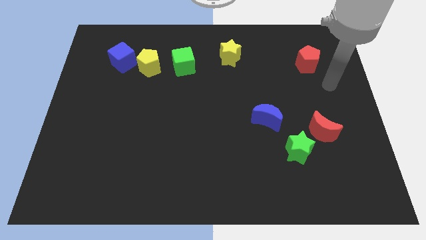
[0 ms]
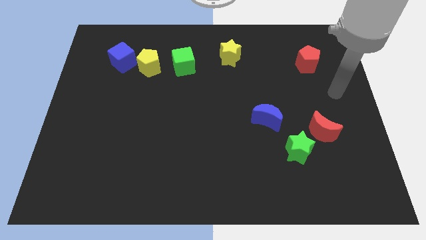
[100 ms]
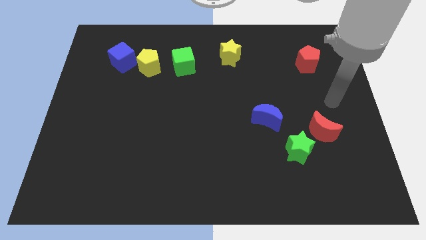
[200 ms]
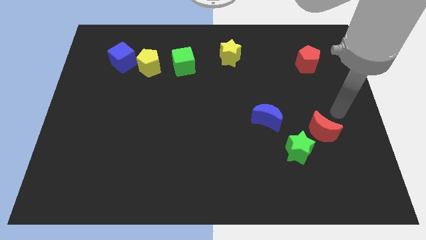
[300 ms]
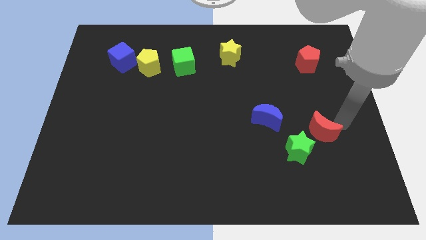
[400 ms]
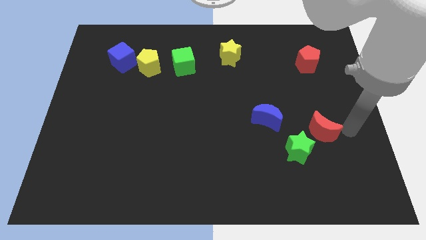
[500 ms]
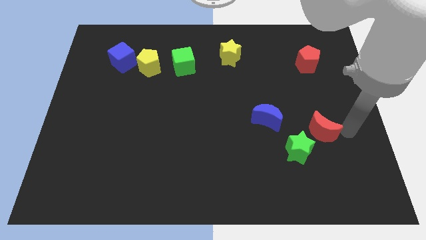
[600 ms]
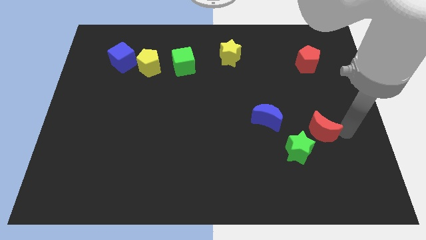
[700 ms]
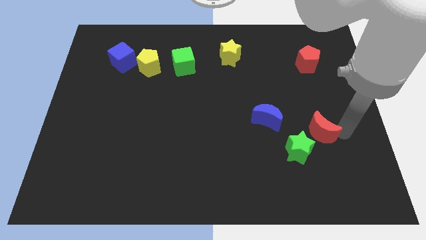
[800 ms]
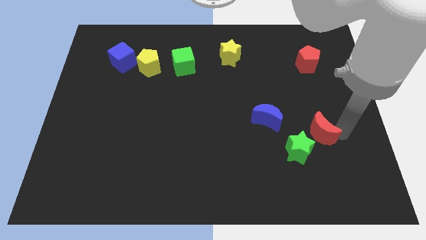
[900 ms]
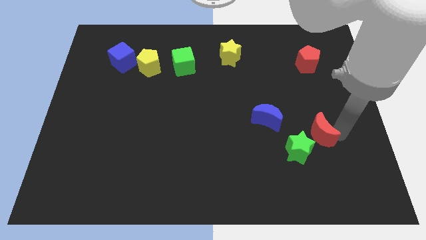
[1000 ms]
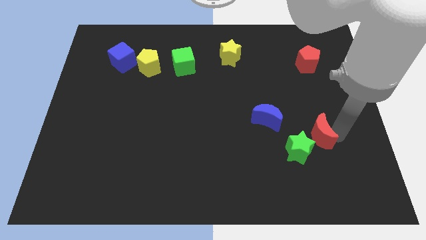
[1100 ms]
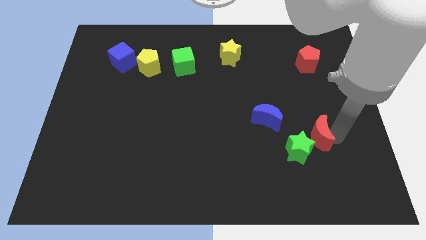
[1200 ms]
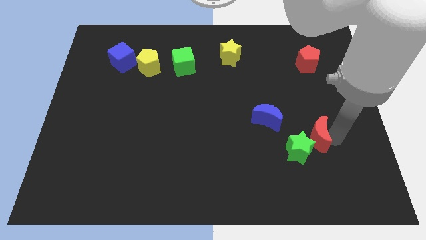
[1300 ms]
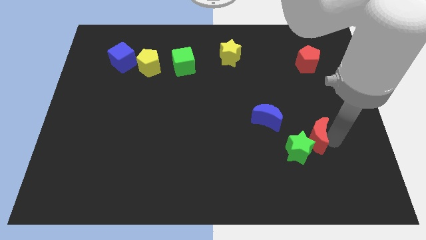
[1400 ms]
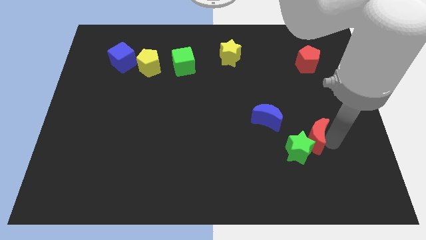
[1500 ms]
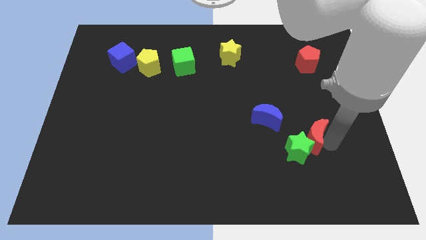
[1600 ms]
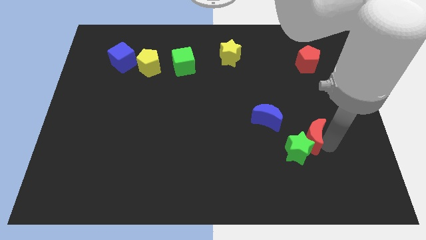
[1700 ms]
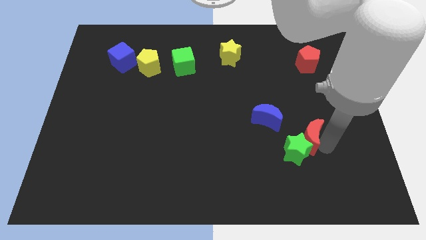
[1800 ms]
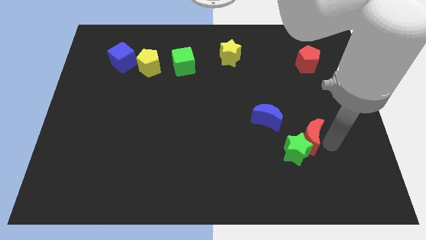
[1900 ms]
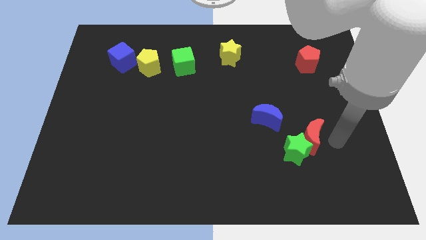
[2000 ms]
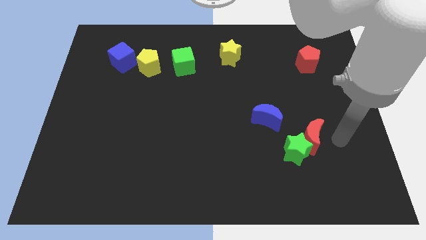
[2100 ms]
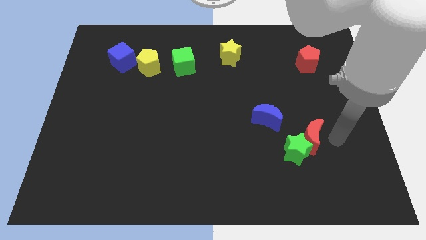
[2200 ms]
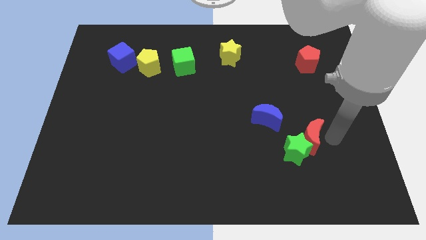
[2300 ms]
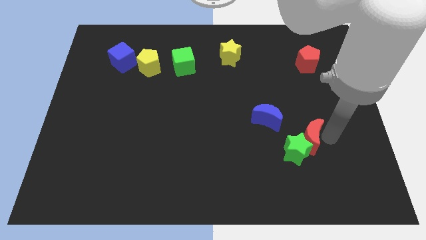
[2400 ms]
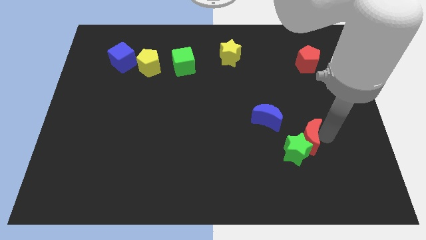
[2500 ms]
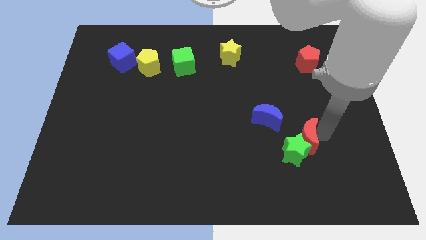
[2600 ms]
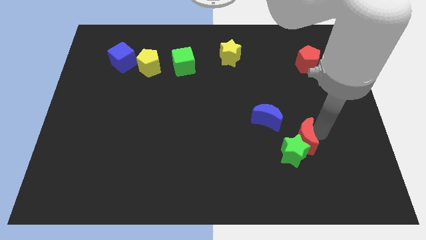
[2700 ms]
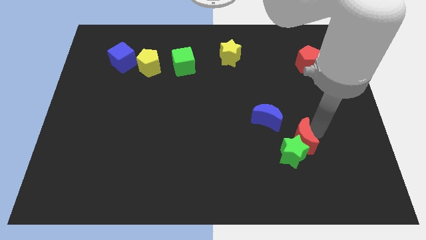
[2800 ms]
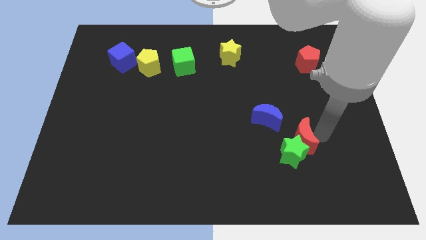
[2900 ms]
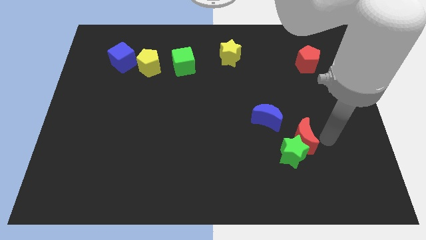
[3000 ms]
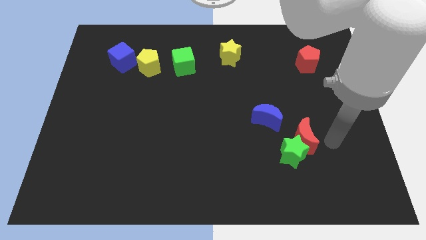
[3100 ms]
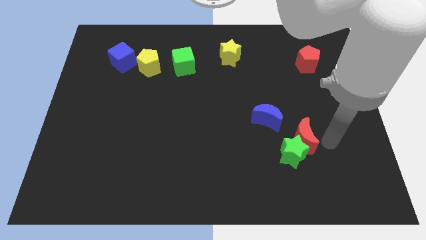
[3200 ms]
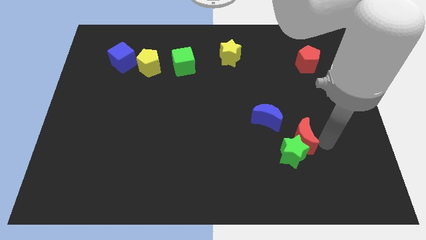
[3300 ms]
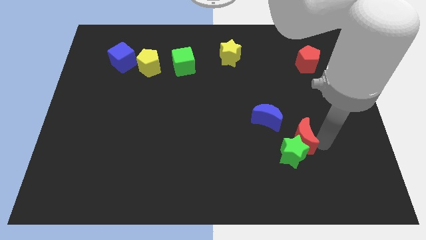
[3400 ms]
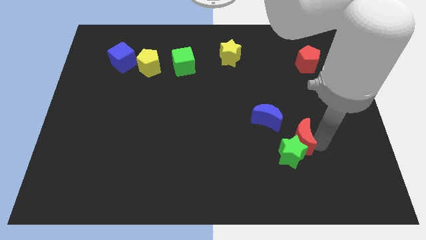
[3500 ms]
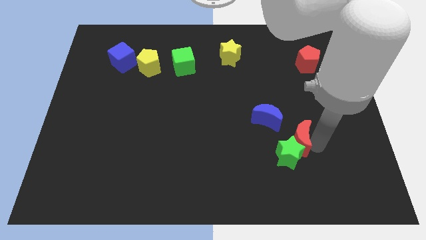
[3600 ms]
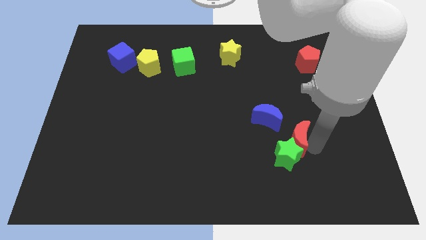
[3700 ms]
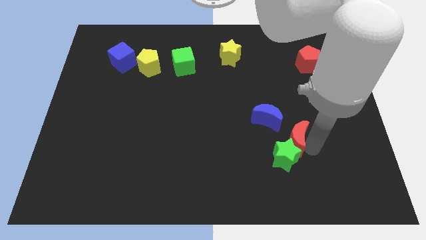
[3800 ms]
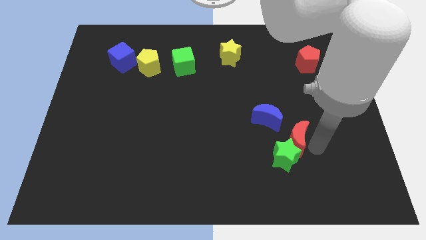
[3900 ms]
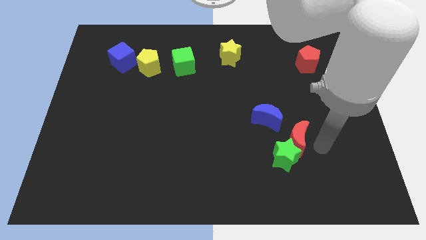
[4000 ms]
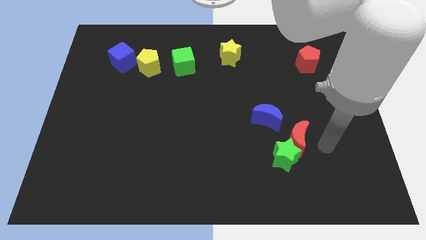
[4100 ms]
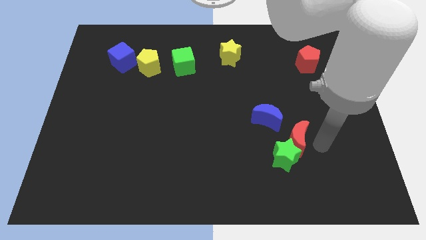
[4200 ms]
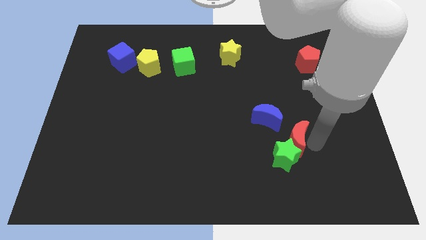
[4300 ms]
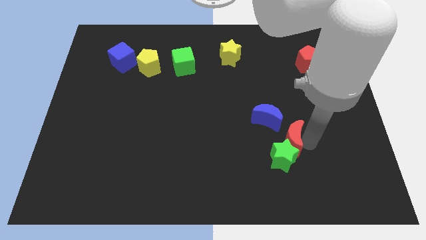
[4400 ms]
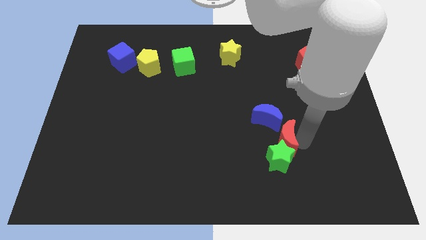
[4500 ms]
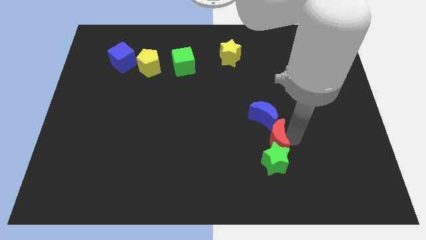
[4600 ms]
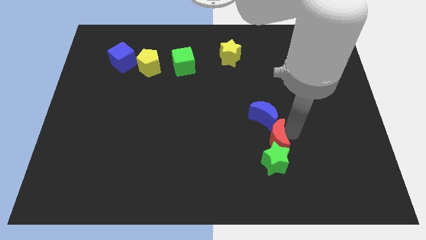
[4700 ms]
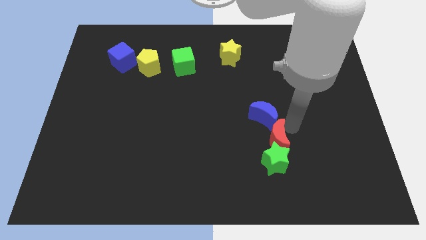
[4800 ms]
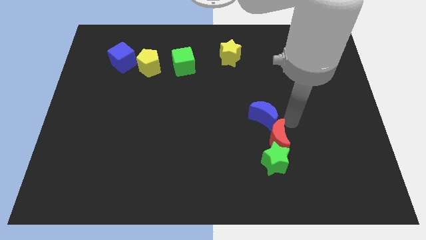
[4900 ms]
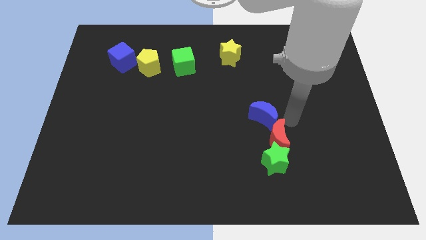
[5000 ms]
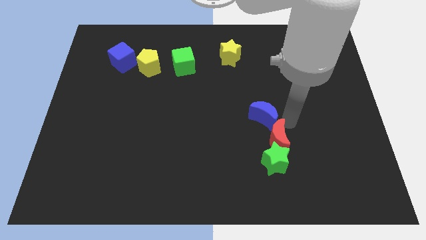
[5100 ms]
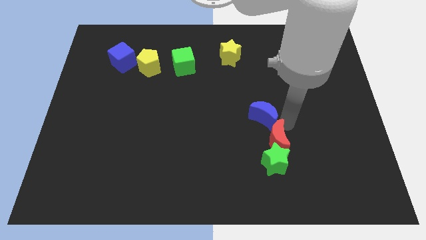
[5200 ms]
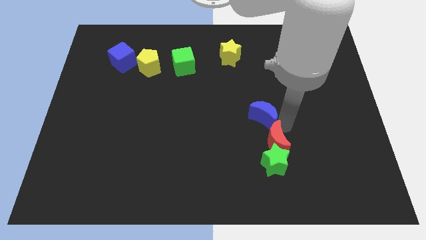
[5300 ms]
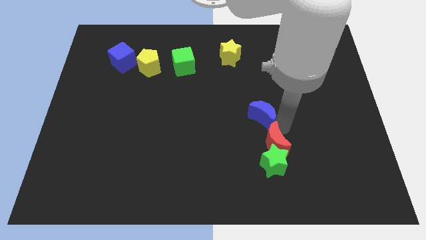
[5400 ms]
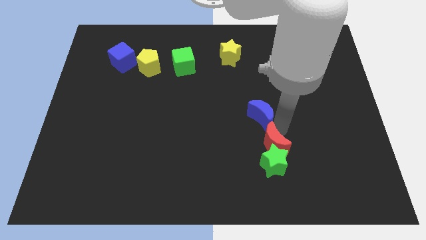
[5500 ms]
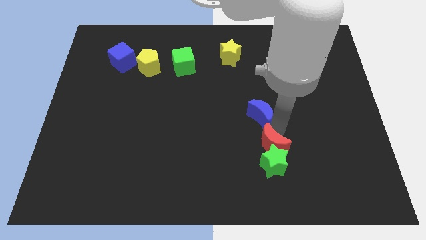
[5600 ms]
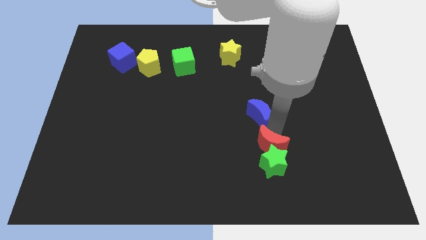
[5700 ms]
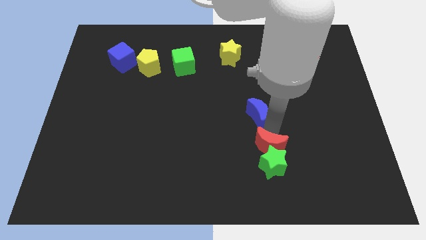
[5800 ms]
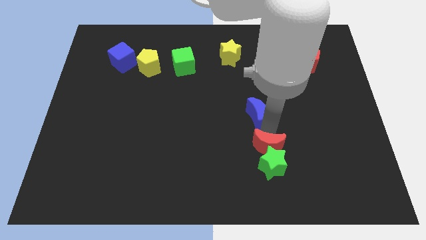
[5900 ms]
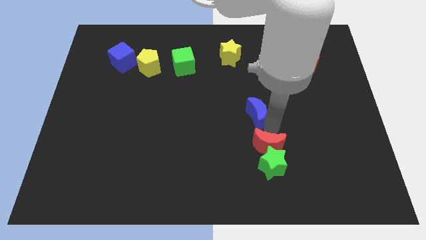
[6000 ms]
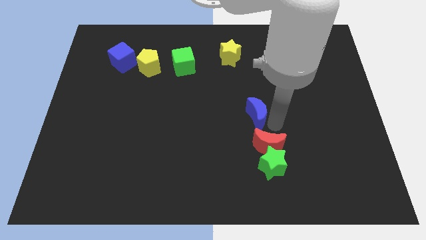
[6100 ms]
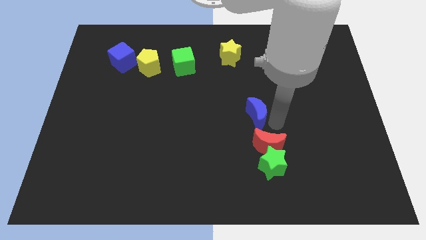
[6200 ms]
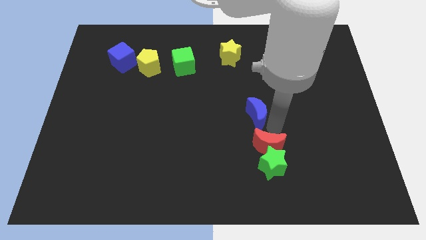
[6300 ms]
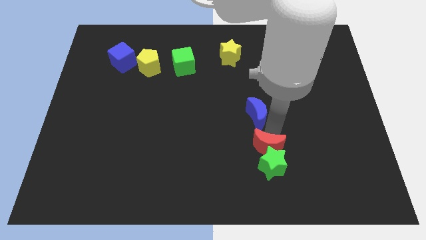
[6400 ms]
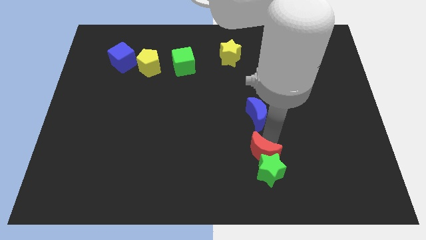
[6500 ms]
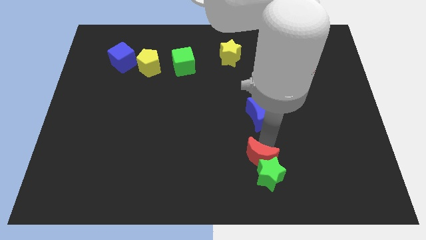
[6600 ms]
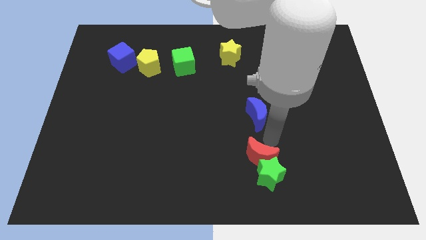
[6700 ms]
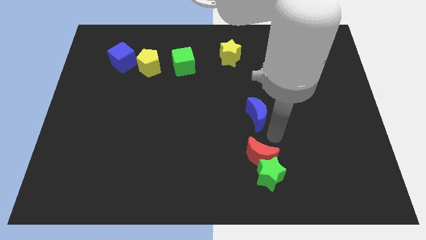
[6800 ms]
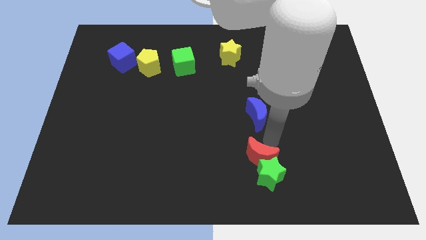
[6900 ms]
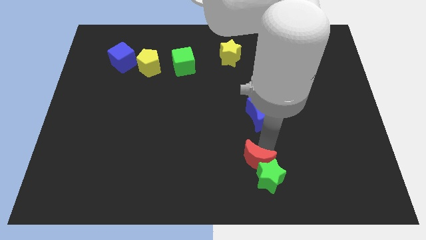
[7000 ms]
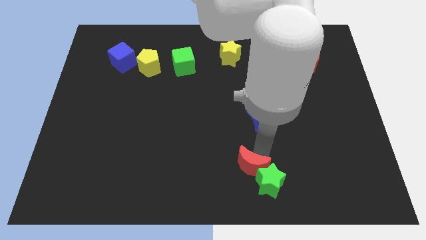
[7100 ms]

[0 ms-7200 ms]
move the red moon to the bottom side

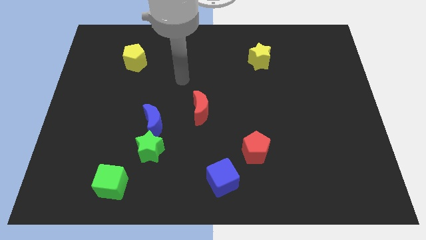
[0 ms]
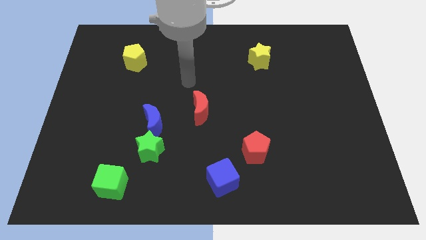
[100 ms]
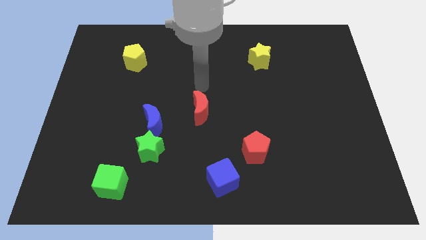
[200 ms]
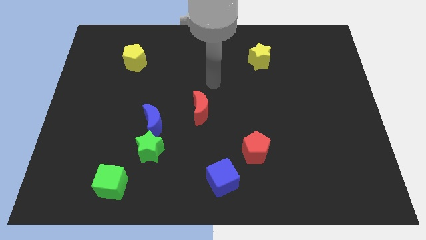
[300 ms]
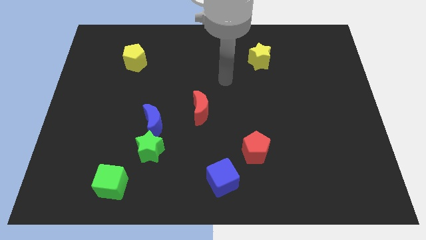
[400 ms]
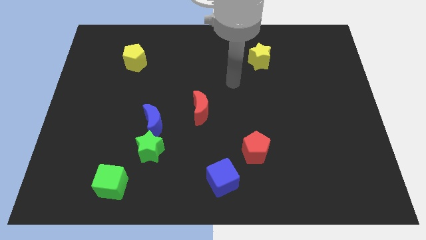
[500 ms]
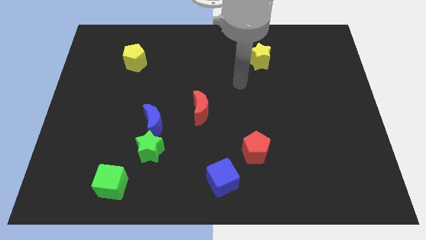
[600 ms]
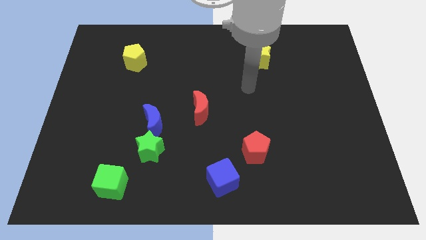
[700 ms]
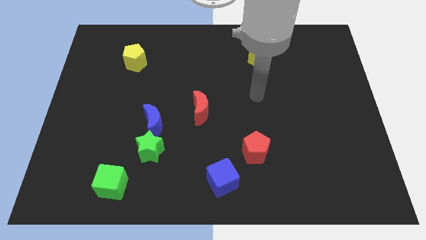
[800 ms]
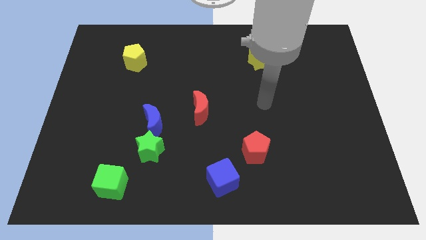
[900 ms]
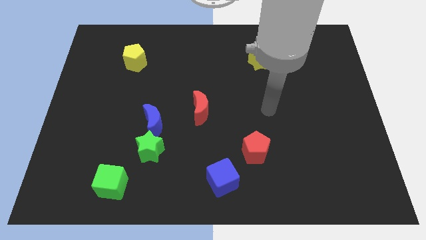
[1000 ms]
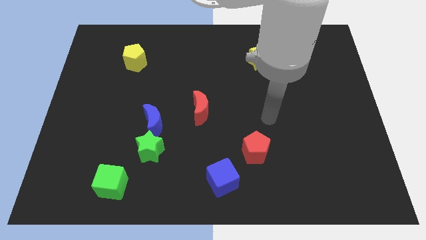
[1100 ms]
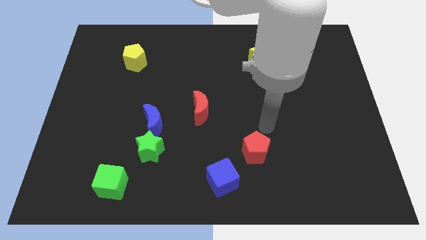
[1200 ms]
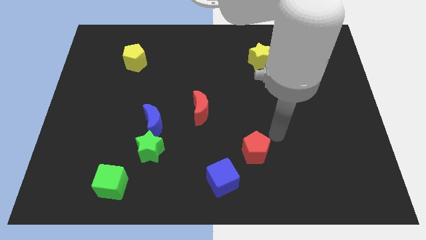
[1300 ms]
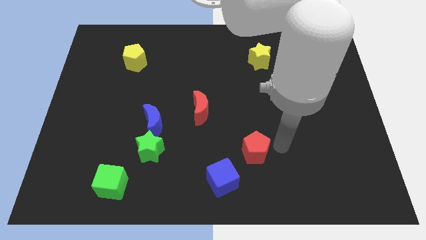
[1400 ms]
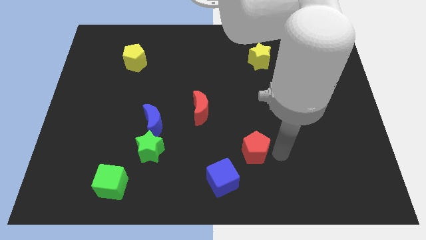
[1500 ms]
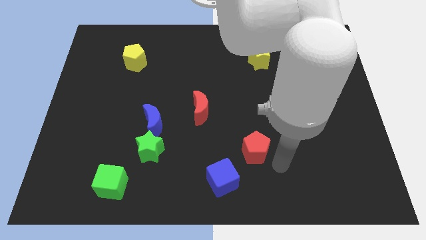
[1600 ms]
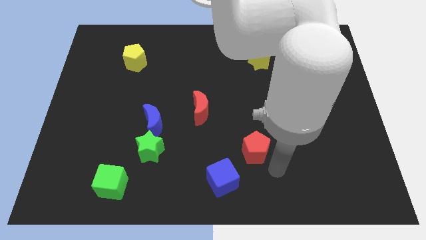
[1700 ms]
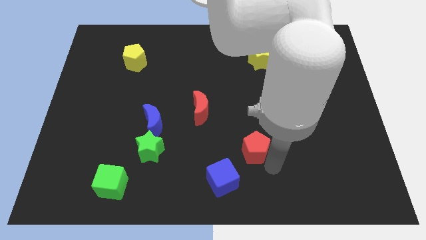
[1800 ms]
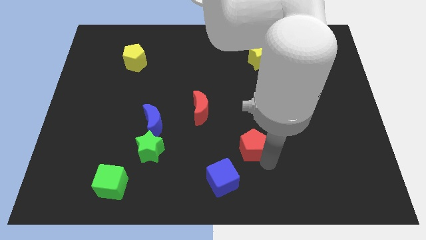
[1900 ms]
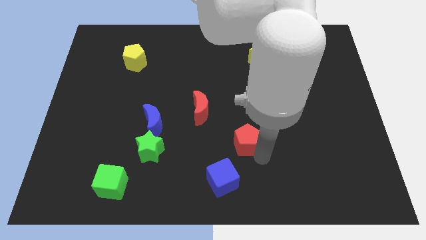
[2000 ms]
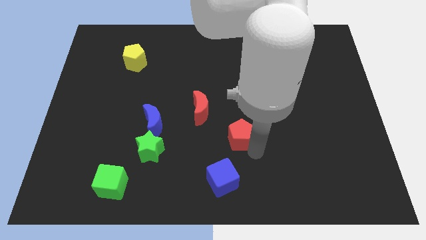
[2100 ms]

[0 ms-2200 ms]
move the red pentagon to the center
